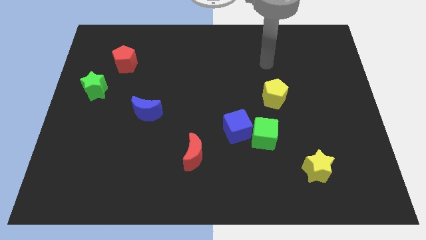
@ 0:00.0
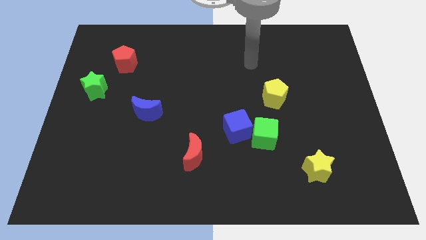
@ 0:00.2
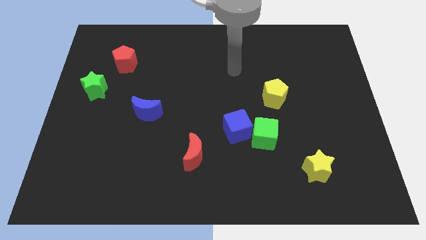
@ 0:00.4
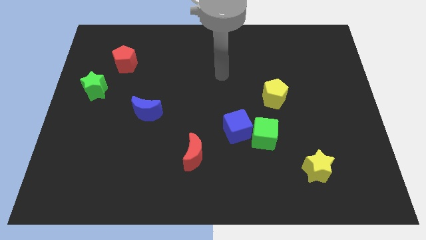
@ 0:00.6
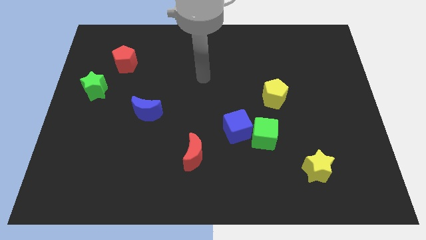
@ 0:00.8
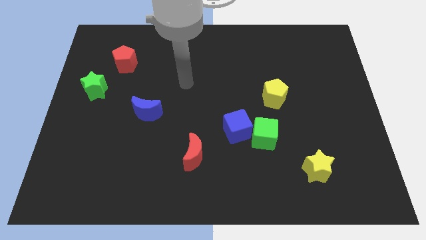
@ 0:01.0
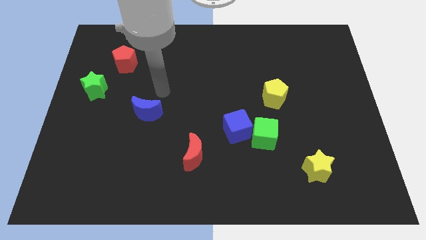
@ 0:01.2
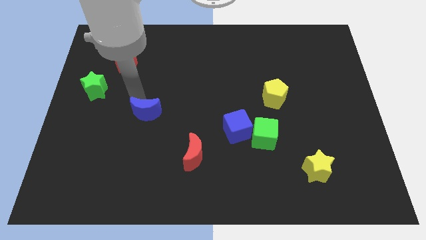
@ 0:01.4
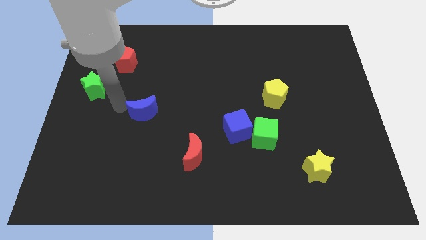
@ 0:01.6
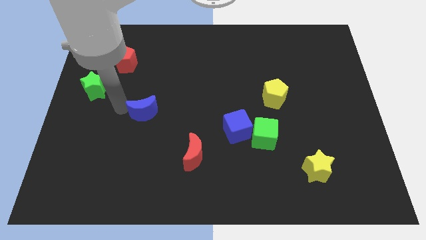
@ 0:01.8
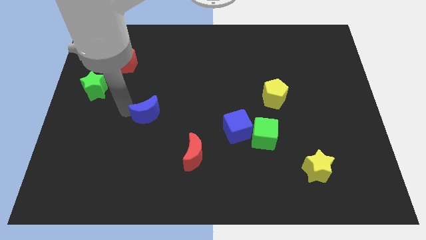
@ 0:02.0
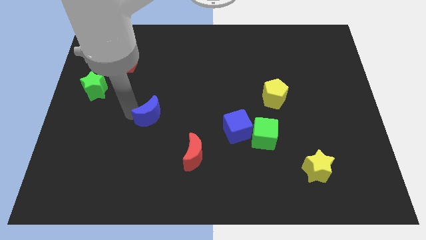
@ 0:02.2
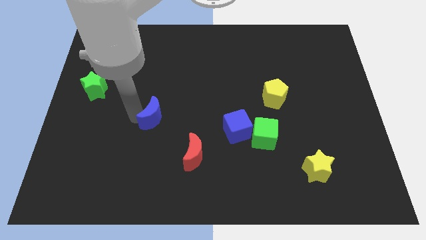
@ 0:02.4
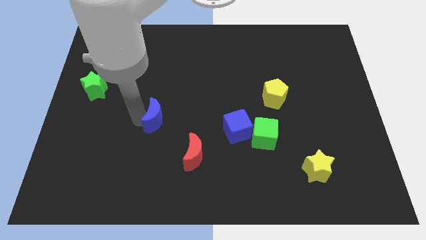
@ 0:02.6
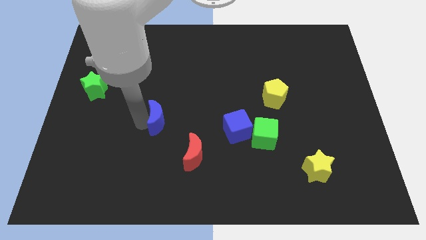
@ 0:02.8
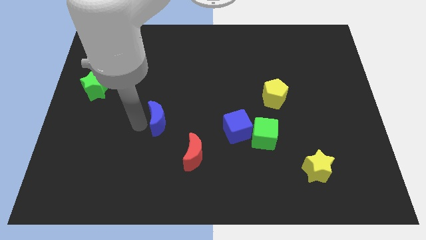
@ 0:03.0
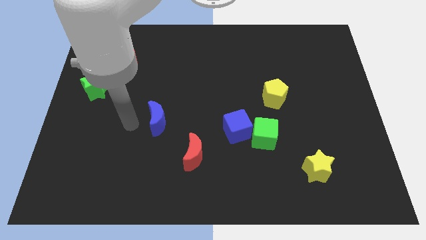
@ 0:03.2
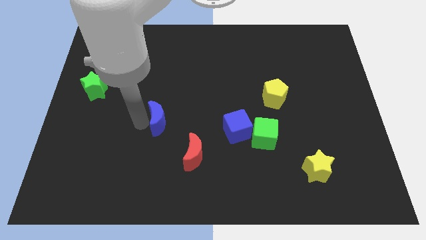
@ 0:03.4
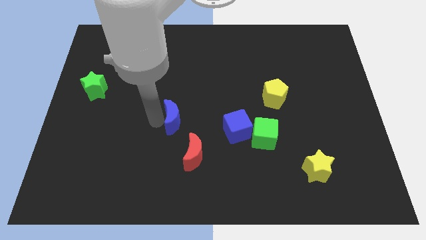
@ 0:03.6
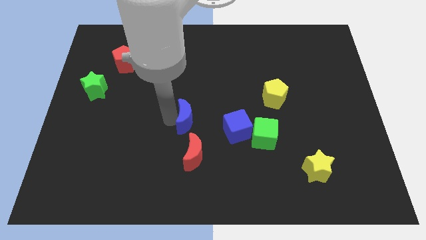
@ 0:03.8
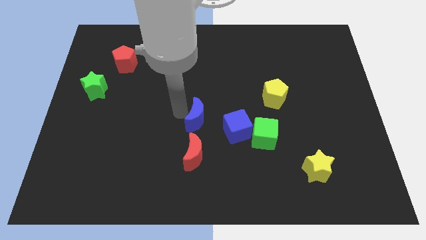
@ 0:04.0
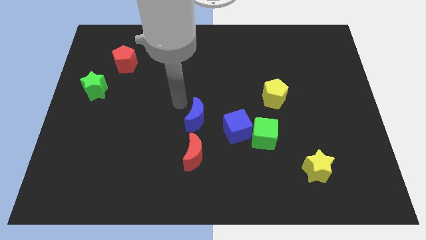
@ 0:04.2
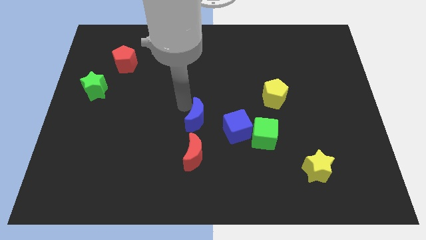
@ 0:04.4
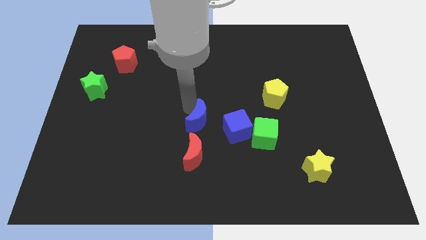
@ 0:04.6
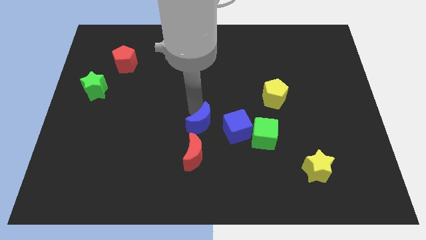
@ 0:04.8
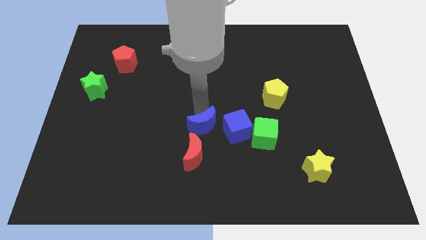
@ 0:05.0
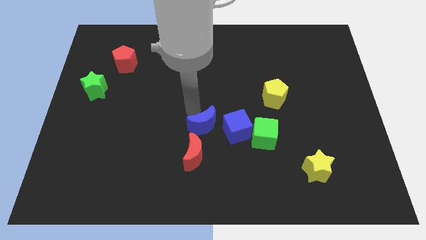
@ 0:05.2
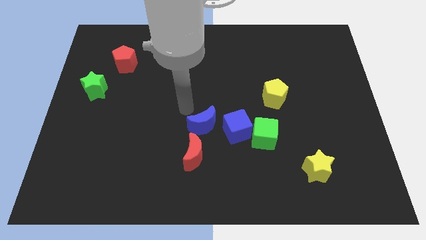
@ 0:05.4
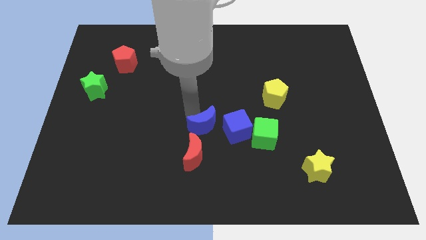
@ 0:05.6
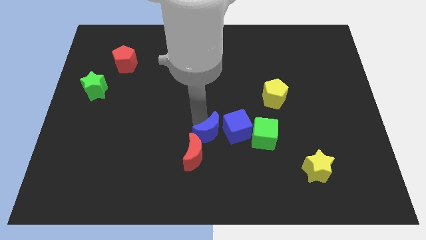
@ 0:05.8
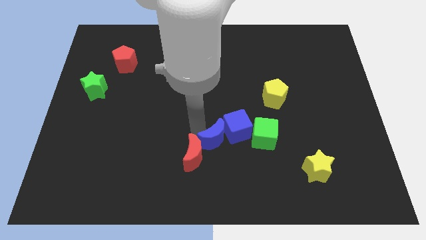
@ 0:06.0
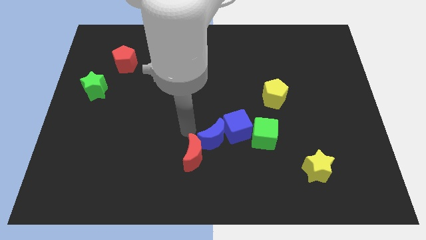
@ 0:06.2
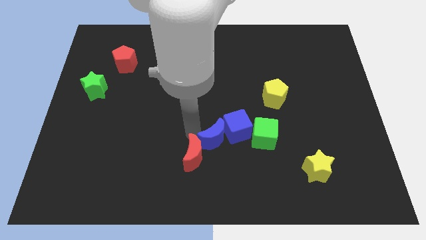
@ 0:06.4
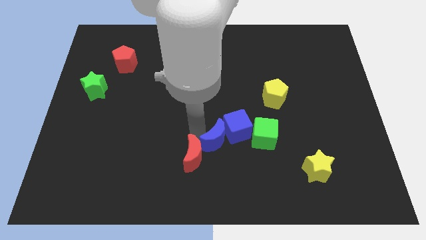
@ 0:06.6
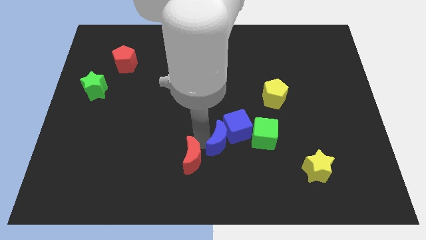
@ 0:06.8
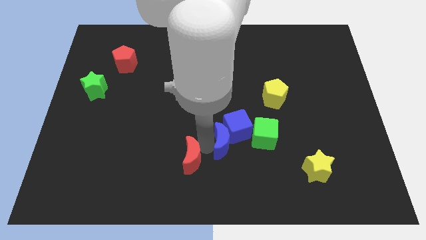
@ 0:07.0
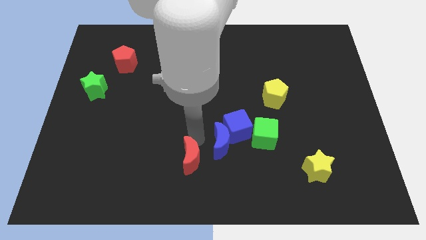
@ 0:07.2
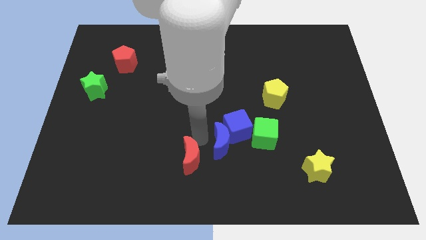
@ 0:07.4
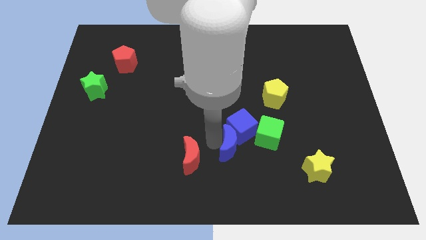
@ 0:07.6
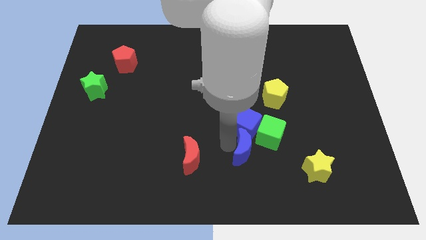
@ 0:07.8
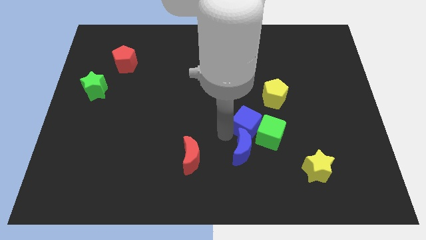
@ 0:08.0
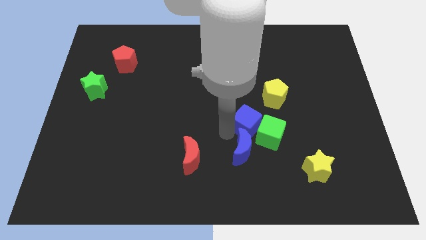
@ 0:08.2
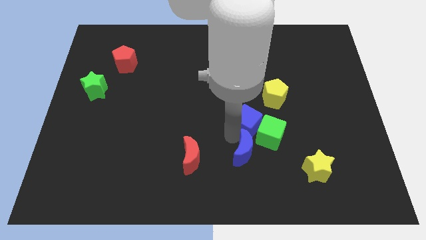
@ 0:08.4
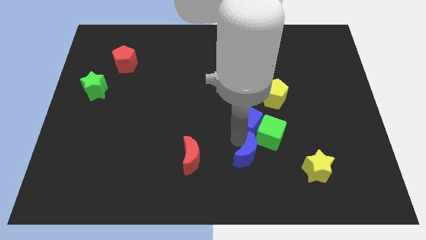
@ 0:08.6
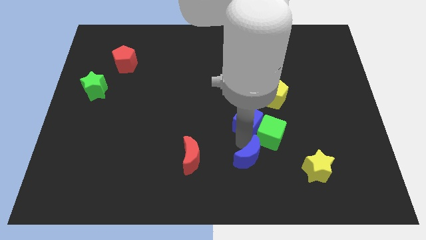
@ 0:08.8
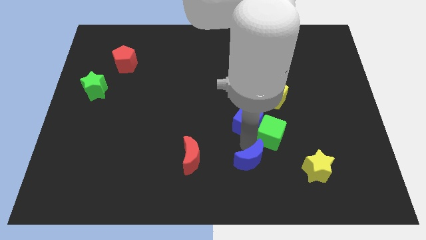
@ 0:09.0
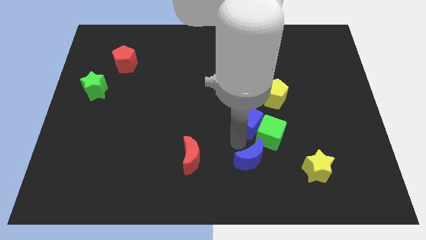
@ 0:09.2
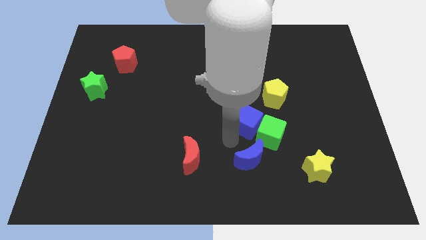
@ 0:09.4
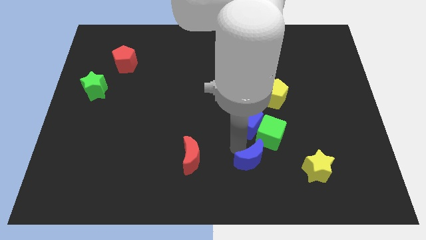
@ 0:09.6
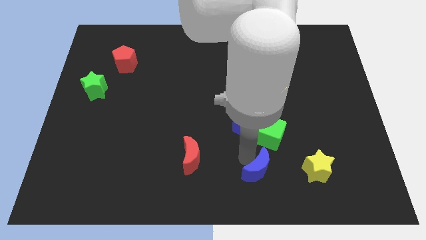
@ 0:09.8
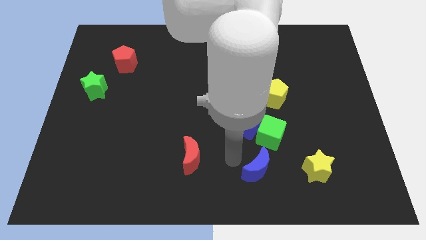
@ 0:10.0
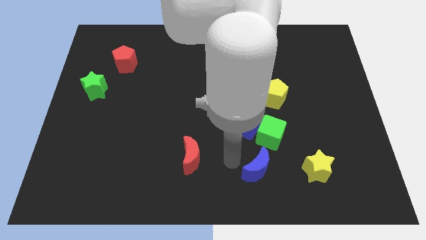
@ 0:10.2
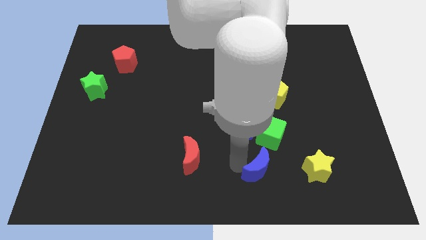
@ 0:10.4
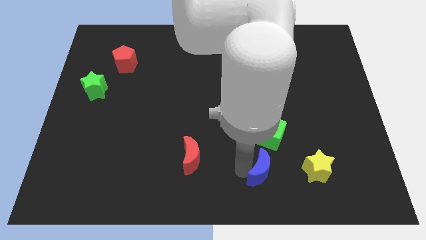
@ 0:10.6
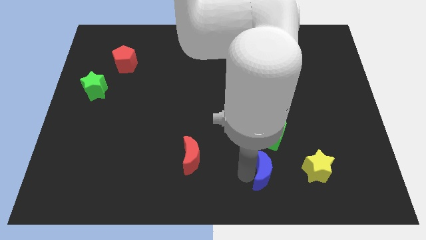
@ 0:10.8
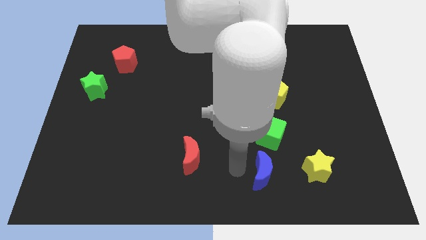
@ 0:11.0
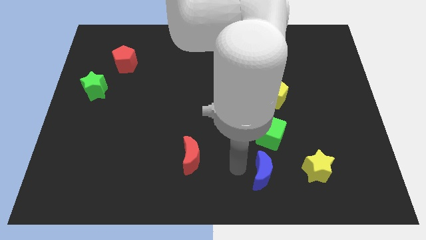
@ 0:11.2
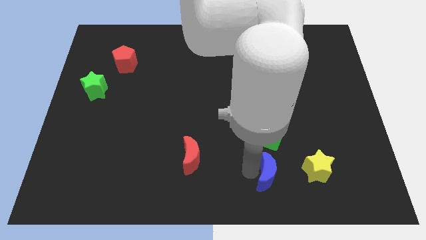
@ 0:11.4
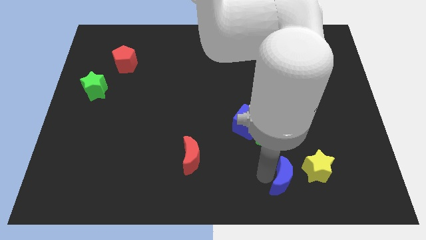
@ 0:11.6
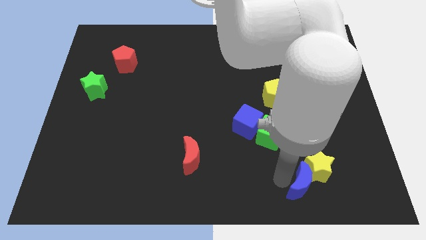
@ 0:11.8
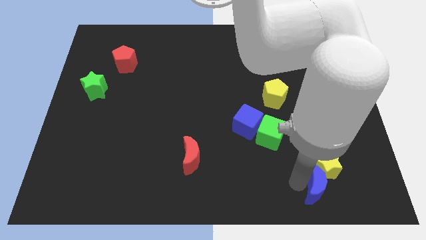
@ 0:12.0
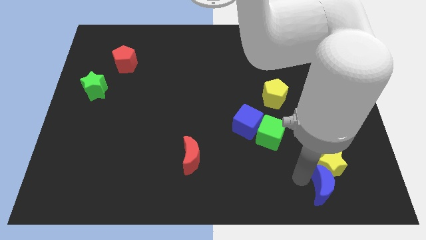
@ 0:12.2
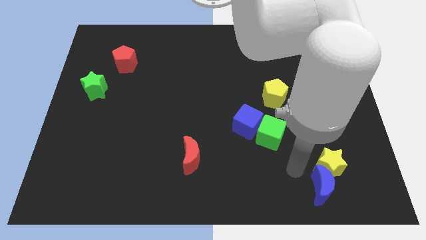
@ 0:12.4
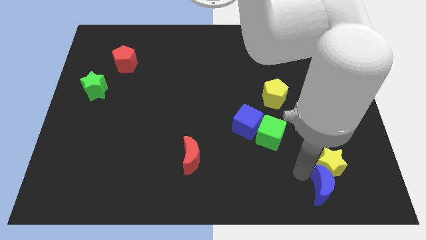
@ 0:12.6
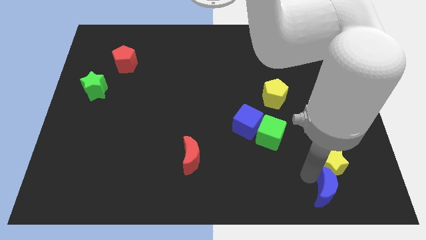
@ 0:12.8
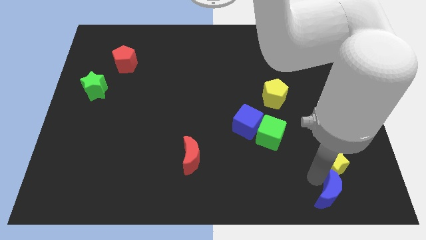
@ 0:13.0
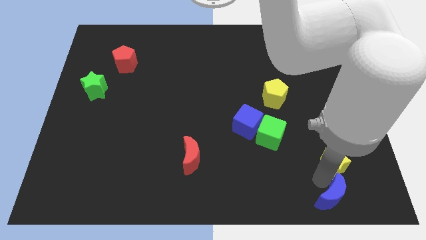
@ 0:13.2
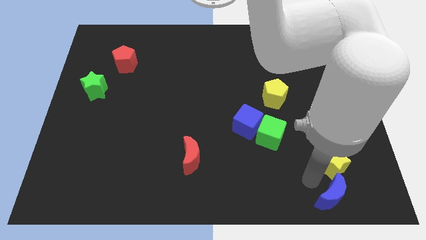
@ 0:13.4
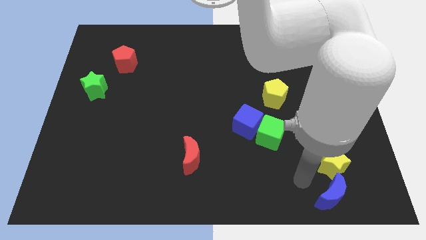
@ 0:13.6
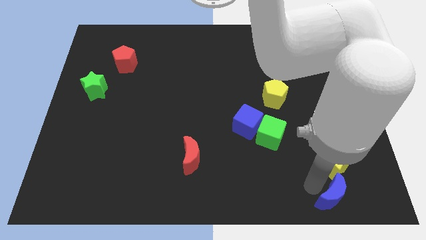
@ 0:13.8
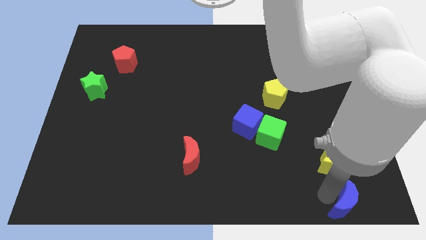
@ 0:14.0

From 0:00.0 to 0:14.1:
push the blue moon to the bottom right
